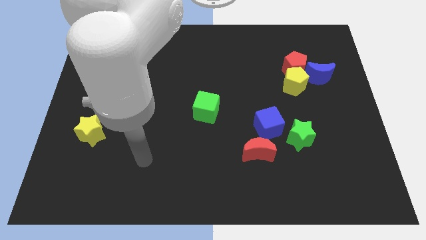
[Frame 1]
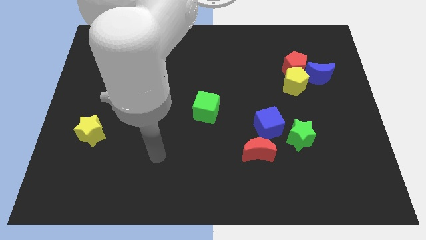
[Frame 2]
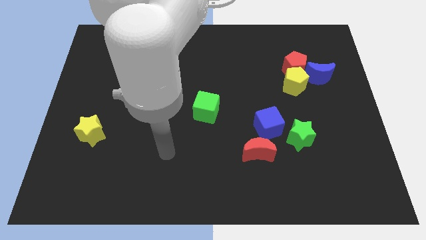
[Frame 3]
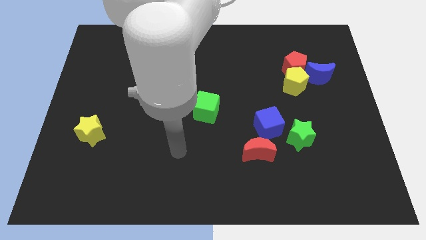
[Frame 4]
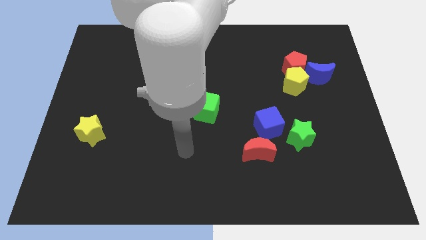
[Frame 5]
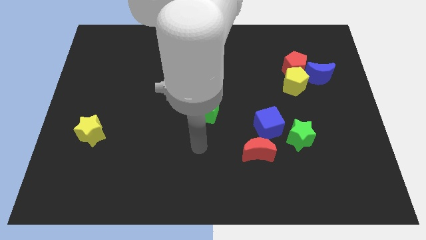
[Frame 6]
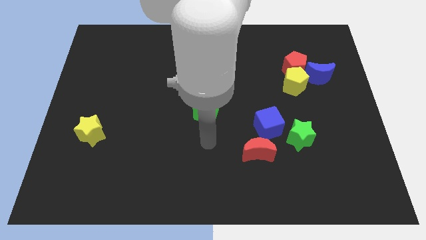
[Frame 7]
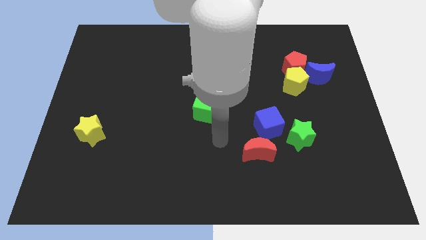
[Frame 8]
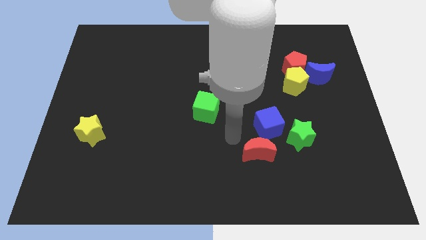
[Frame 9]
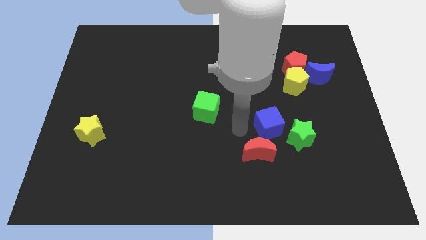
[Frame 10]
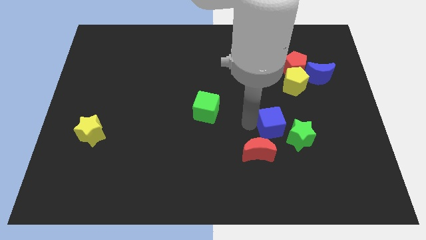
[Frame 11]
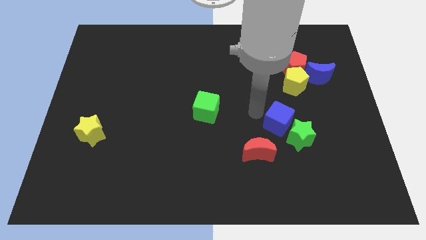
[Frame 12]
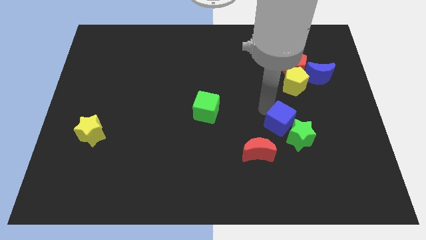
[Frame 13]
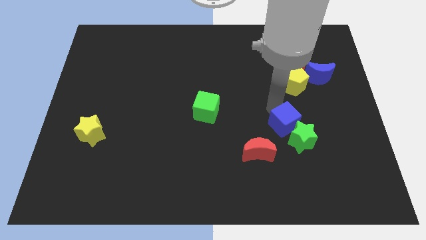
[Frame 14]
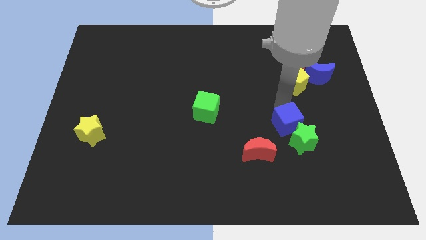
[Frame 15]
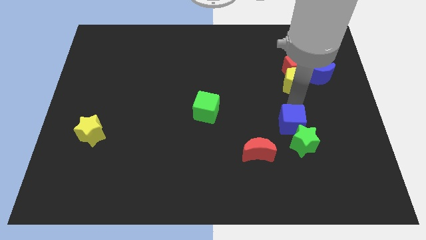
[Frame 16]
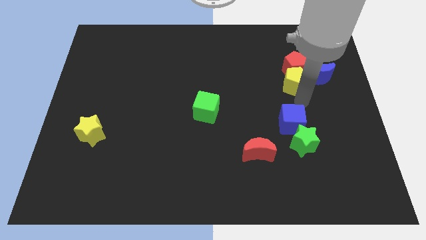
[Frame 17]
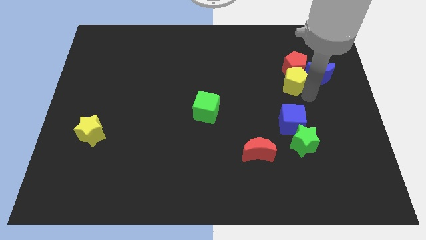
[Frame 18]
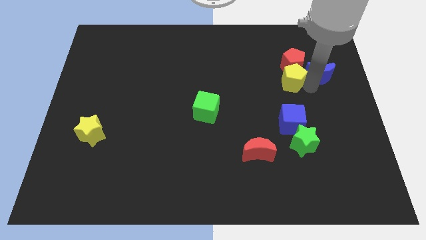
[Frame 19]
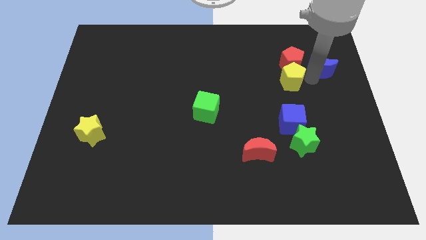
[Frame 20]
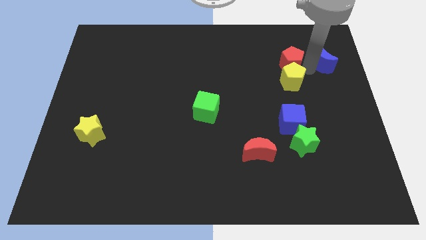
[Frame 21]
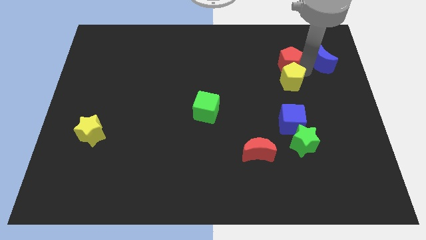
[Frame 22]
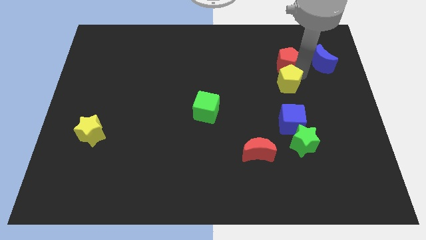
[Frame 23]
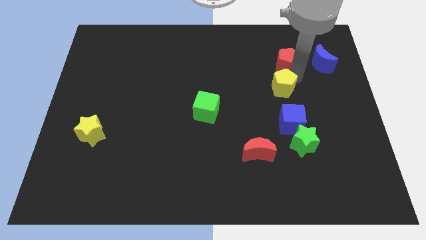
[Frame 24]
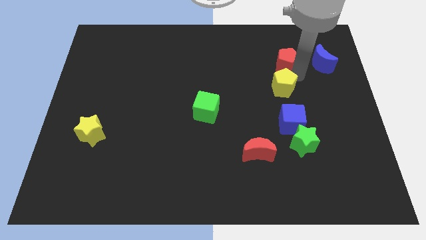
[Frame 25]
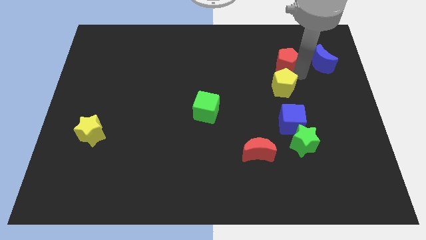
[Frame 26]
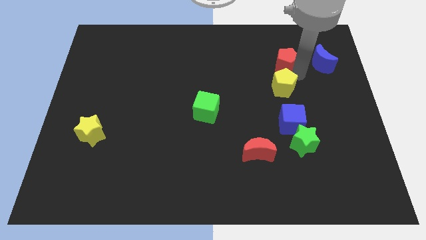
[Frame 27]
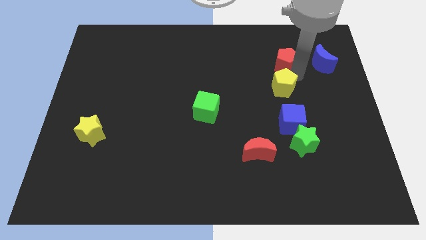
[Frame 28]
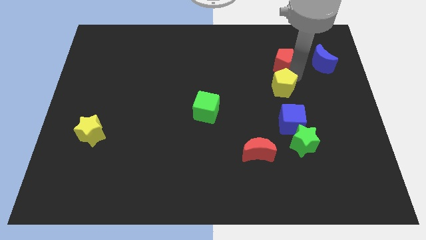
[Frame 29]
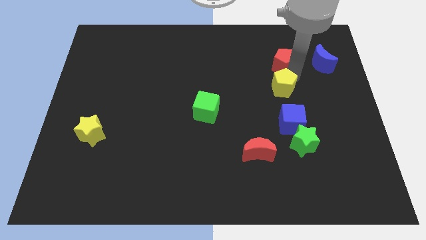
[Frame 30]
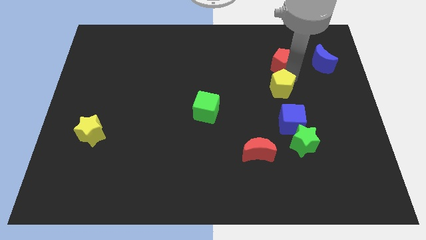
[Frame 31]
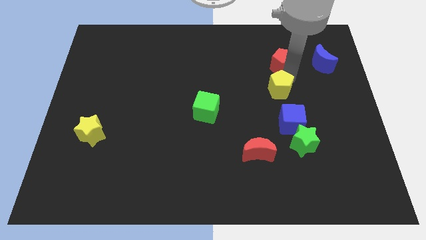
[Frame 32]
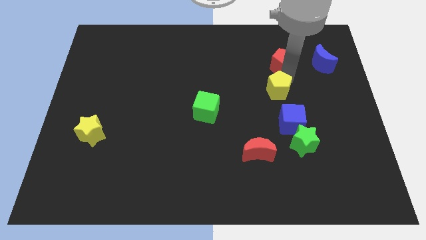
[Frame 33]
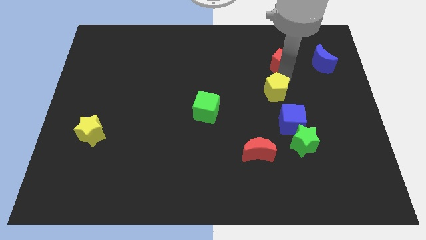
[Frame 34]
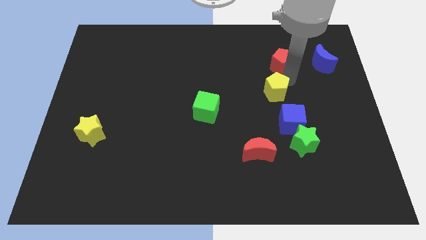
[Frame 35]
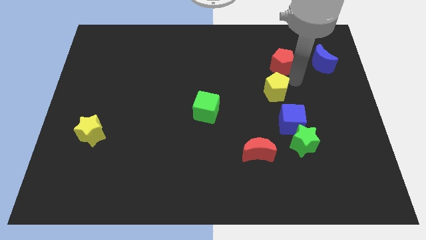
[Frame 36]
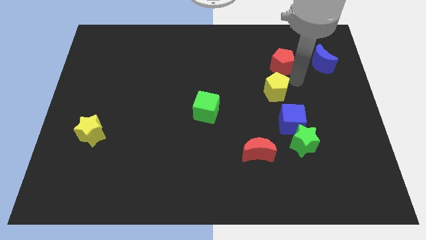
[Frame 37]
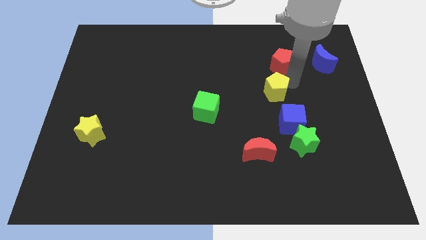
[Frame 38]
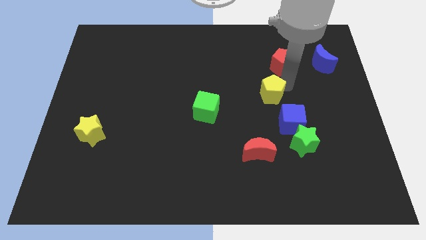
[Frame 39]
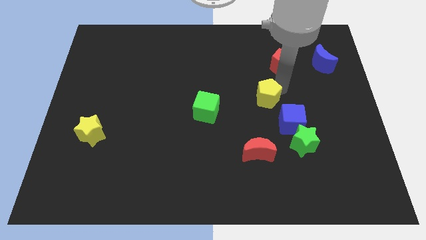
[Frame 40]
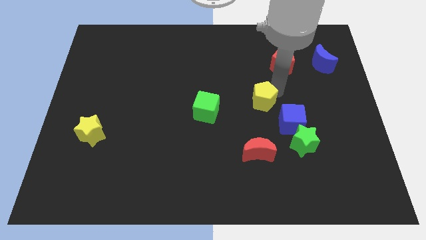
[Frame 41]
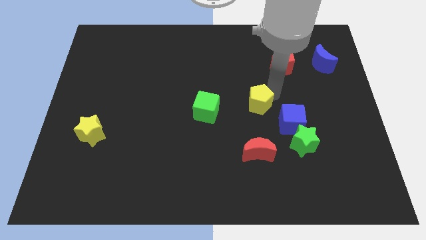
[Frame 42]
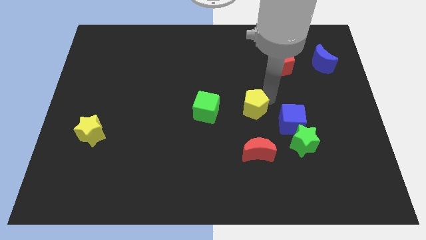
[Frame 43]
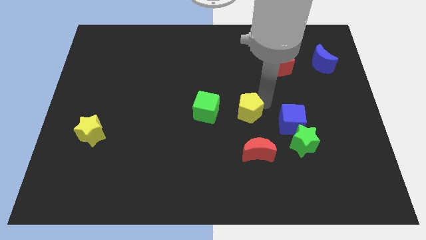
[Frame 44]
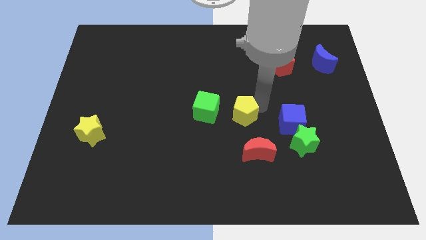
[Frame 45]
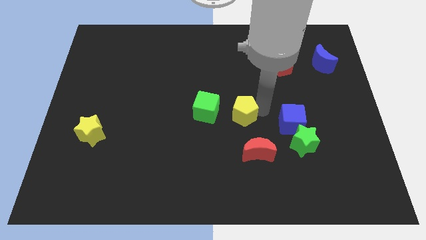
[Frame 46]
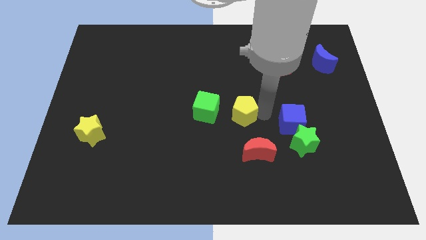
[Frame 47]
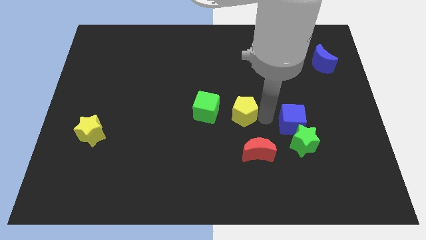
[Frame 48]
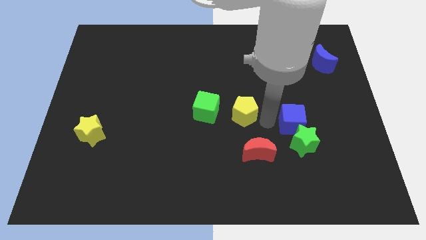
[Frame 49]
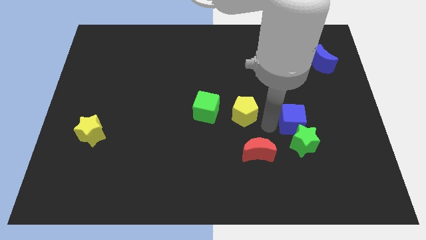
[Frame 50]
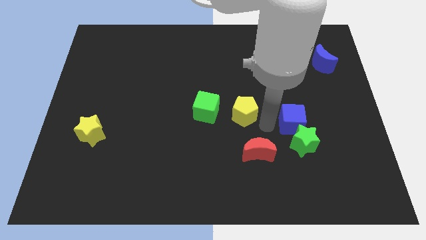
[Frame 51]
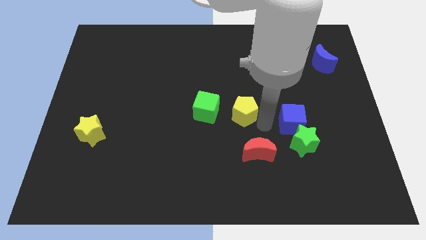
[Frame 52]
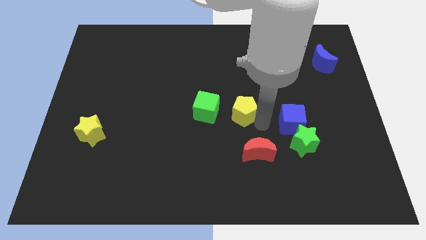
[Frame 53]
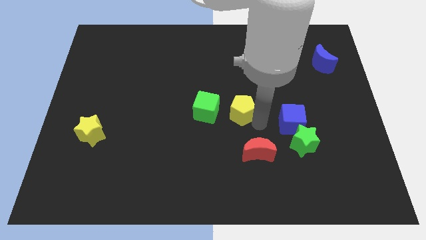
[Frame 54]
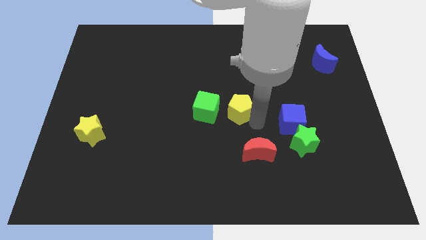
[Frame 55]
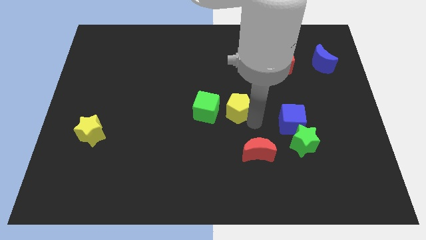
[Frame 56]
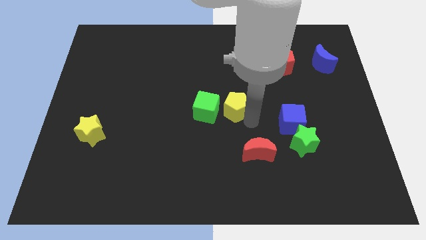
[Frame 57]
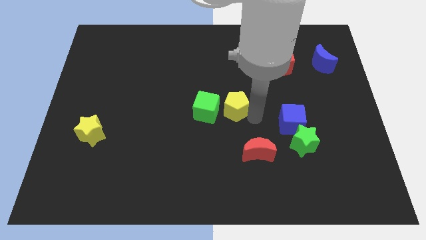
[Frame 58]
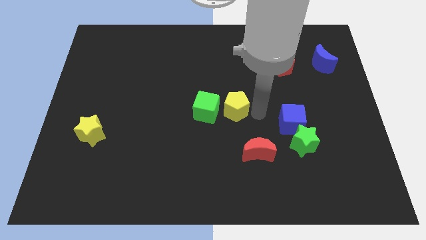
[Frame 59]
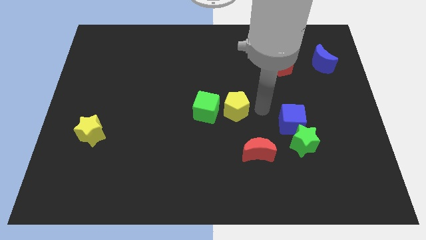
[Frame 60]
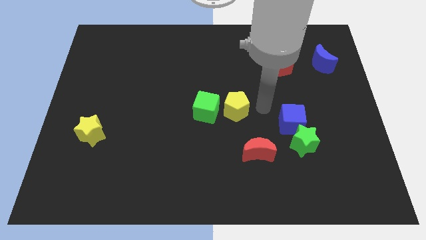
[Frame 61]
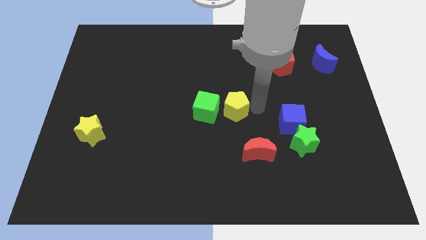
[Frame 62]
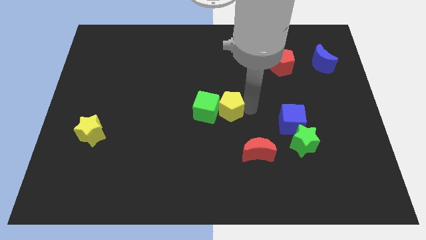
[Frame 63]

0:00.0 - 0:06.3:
put the yellow pentagon to the green cube

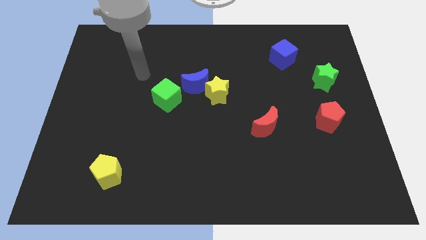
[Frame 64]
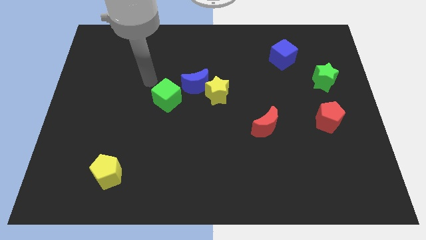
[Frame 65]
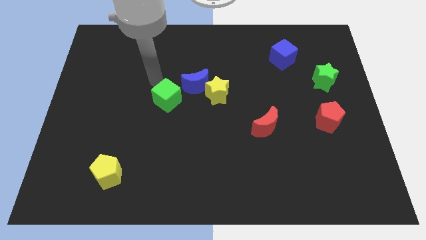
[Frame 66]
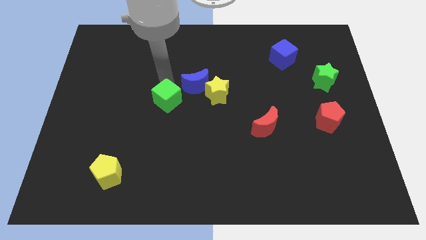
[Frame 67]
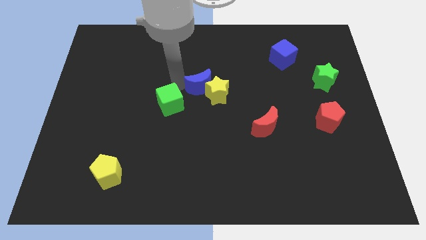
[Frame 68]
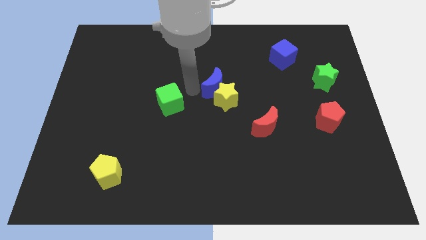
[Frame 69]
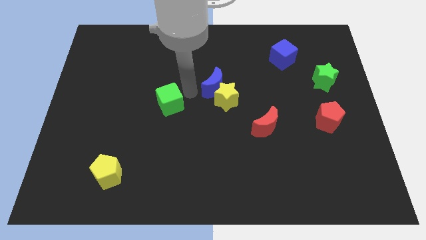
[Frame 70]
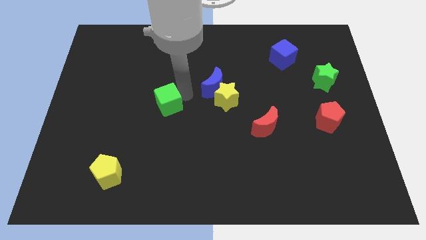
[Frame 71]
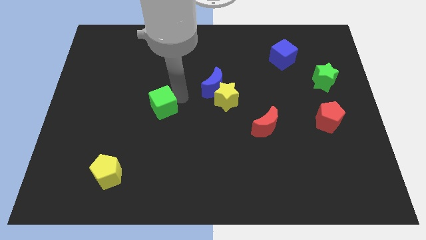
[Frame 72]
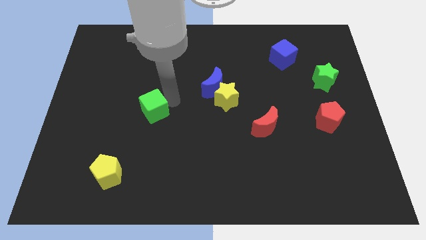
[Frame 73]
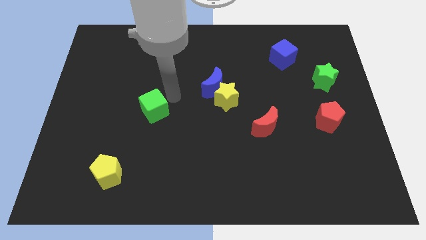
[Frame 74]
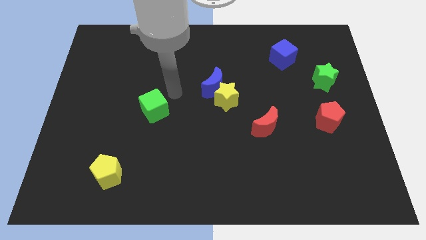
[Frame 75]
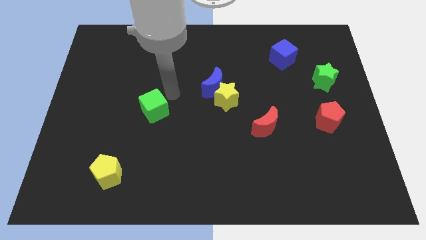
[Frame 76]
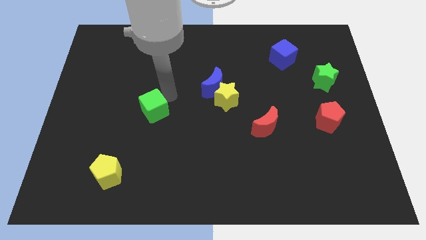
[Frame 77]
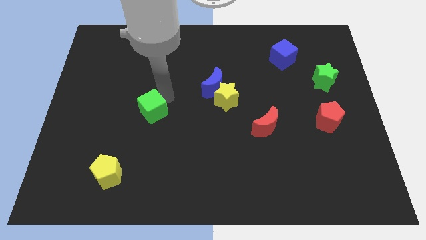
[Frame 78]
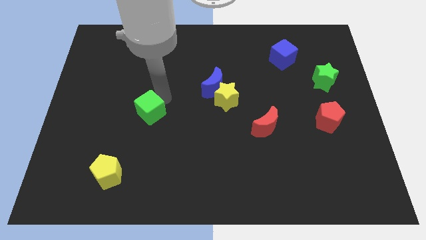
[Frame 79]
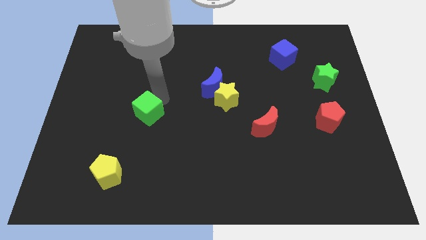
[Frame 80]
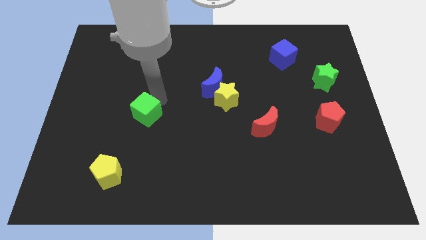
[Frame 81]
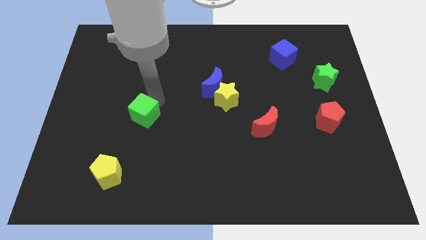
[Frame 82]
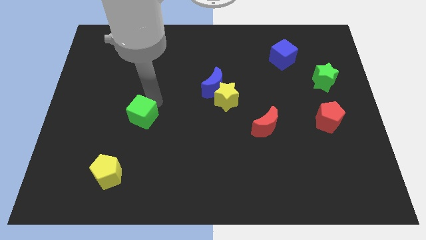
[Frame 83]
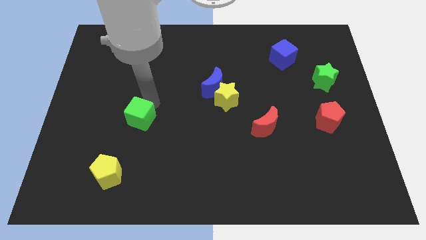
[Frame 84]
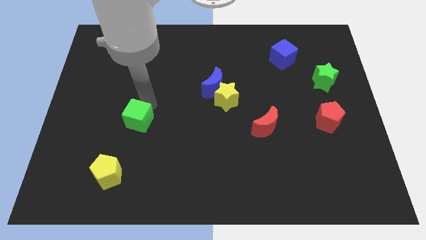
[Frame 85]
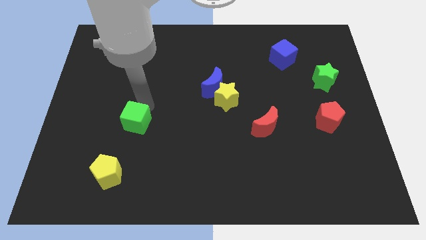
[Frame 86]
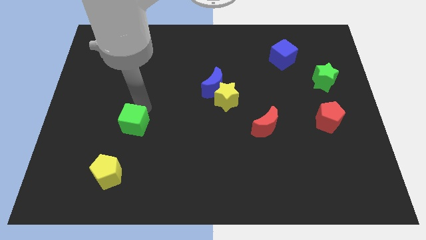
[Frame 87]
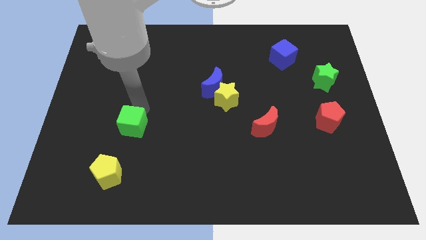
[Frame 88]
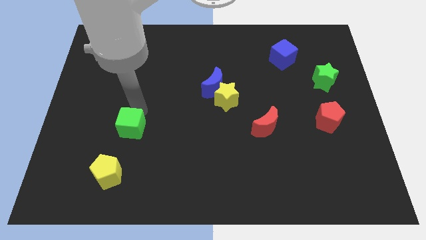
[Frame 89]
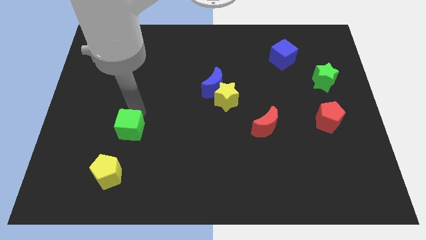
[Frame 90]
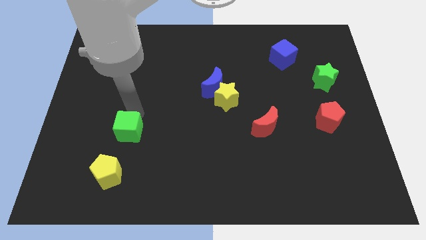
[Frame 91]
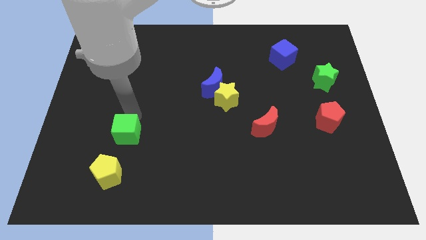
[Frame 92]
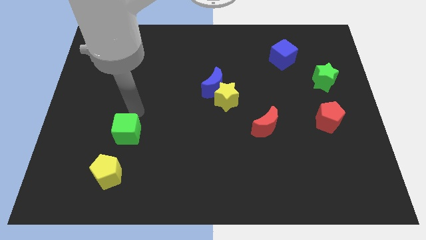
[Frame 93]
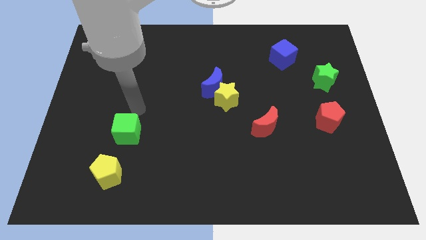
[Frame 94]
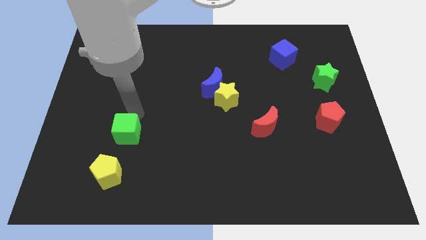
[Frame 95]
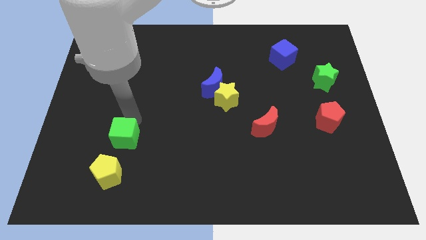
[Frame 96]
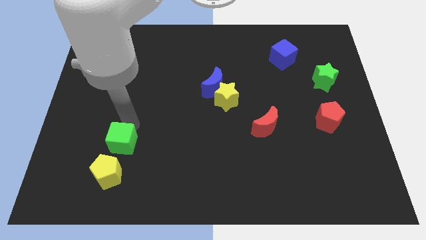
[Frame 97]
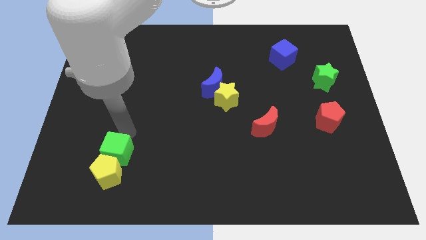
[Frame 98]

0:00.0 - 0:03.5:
move the green cube next to the yellow pentagon
